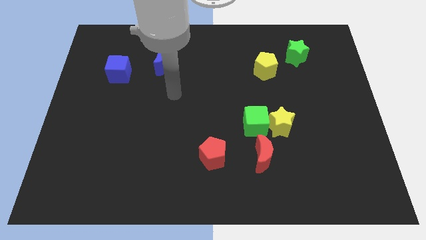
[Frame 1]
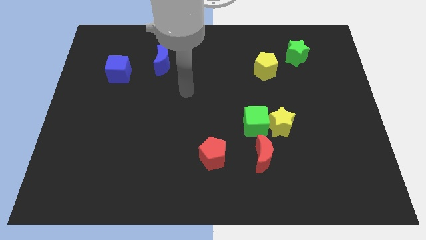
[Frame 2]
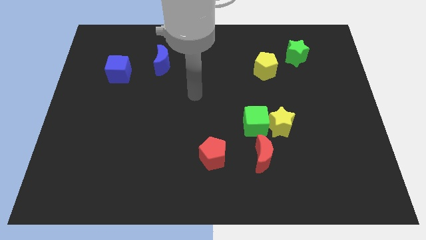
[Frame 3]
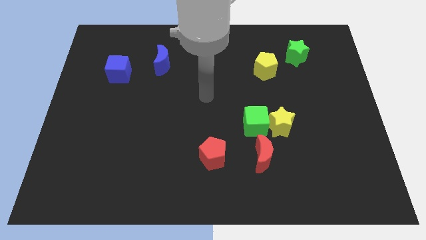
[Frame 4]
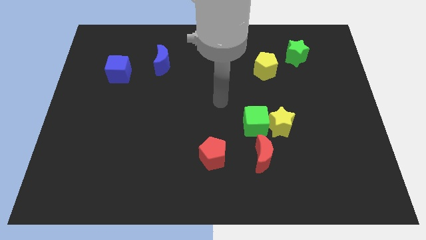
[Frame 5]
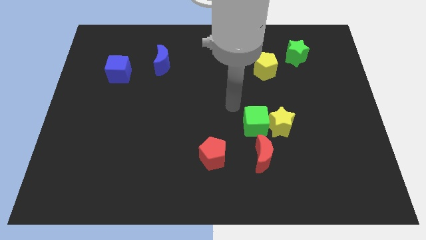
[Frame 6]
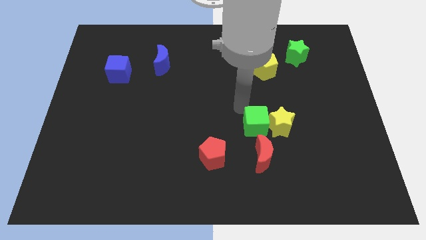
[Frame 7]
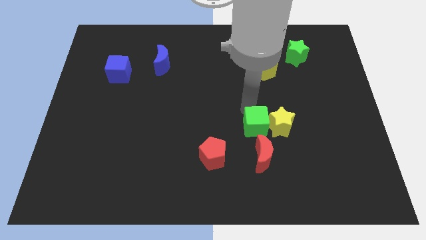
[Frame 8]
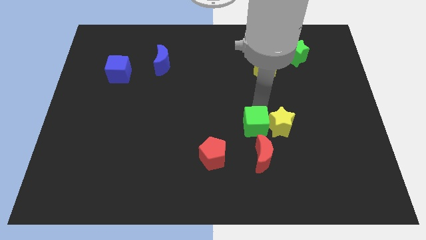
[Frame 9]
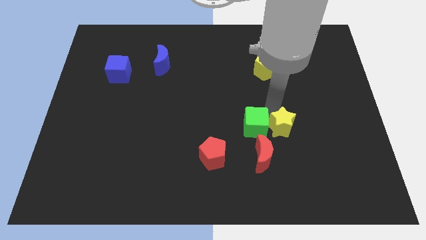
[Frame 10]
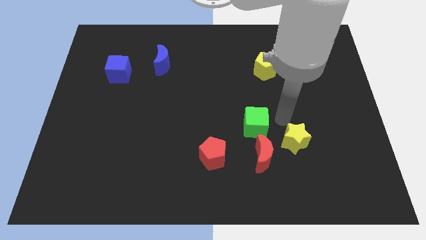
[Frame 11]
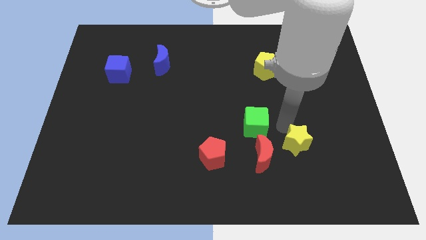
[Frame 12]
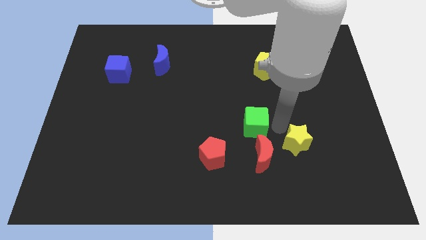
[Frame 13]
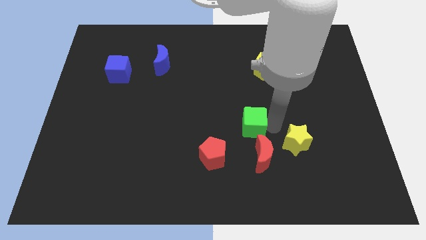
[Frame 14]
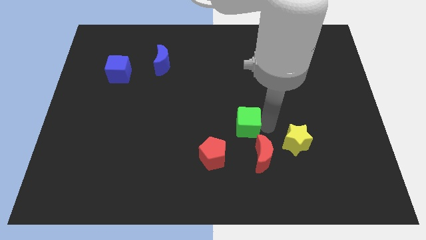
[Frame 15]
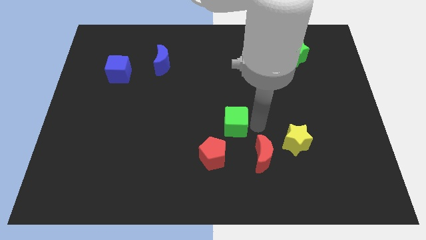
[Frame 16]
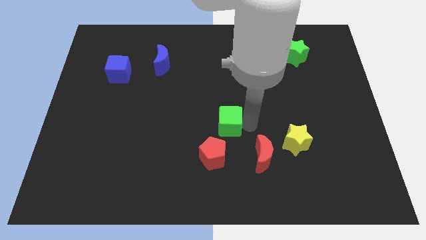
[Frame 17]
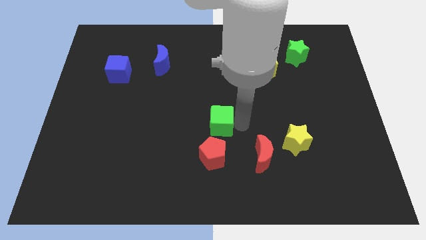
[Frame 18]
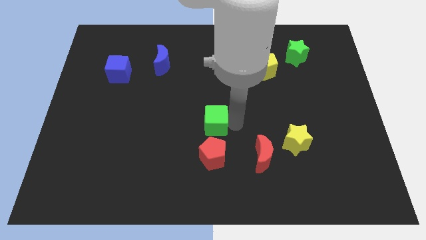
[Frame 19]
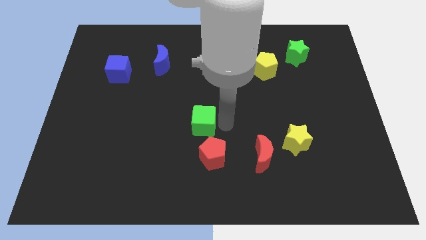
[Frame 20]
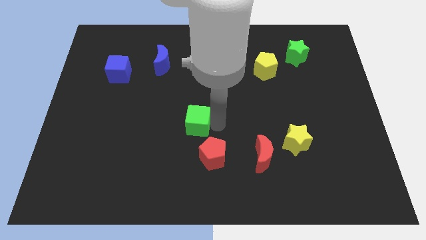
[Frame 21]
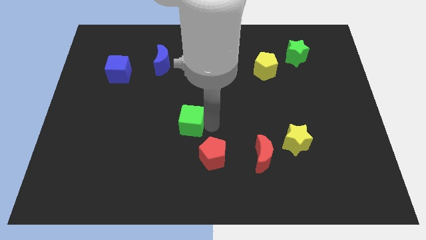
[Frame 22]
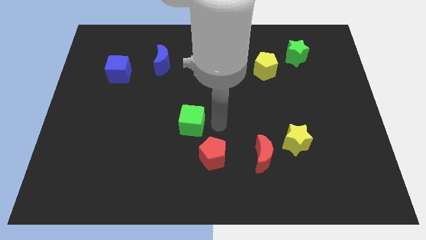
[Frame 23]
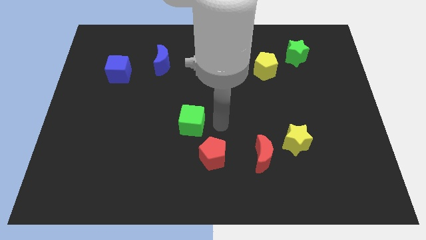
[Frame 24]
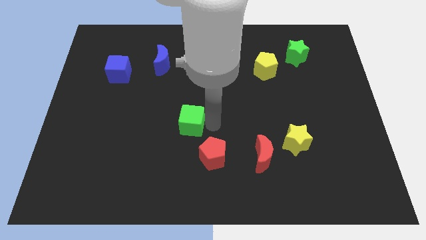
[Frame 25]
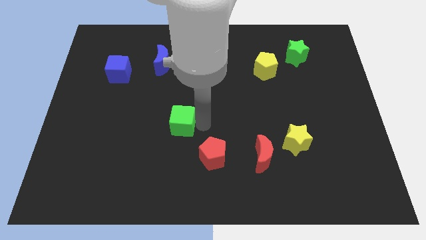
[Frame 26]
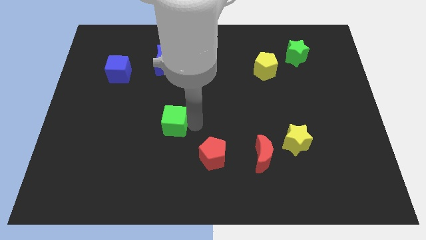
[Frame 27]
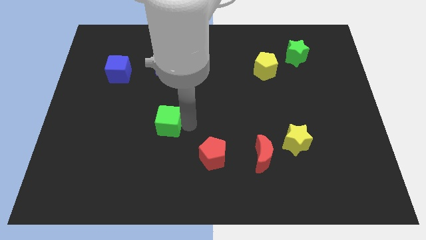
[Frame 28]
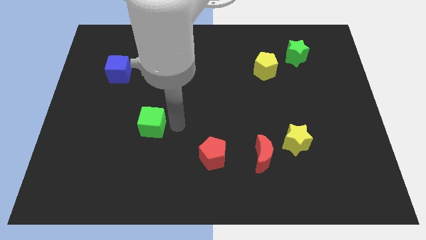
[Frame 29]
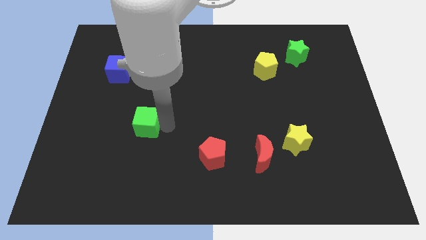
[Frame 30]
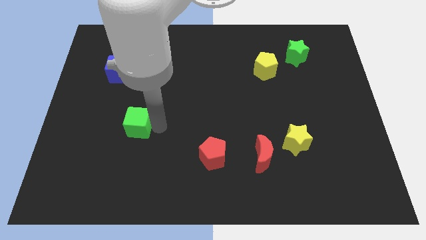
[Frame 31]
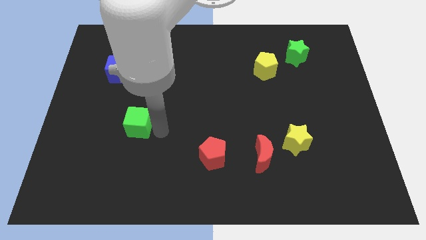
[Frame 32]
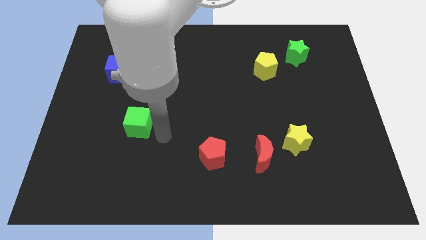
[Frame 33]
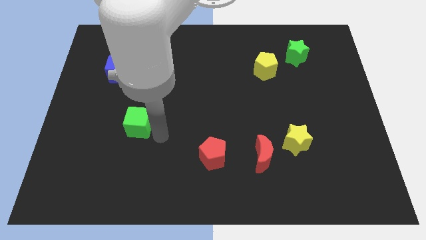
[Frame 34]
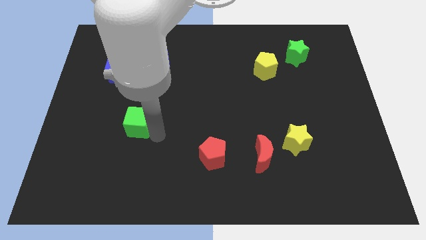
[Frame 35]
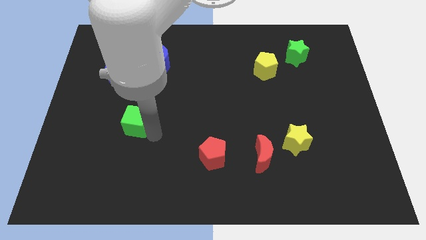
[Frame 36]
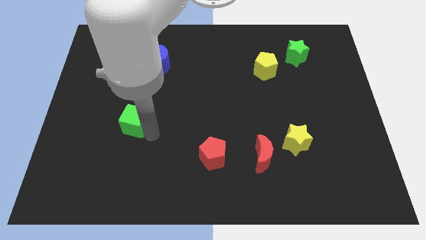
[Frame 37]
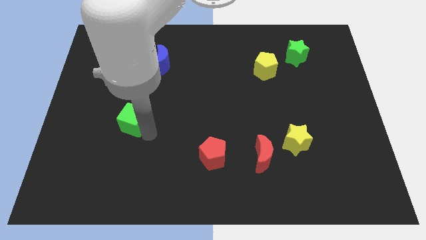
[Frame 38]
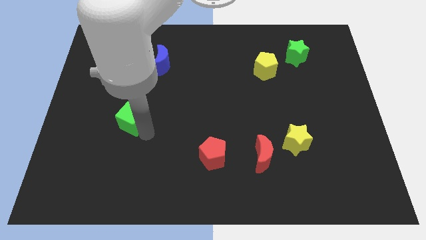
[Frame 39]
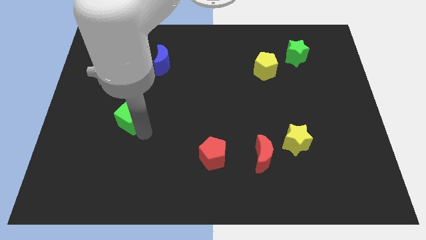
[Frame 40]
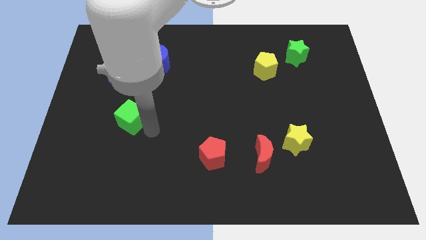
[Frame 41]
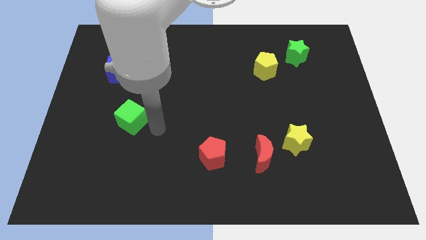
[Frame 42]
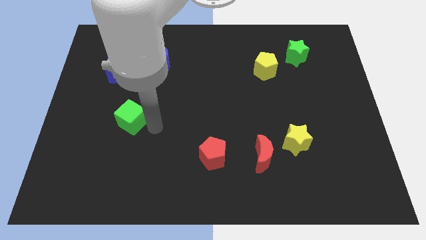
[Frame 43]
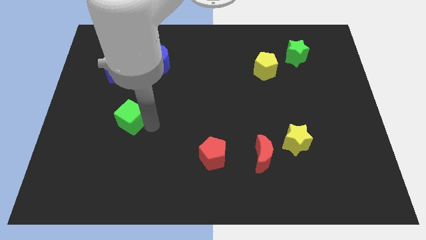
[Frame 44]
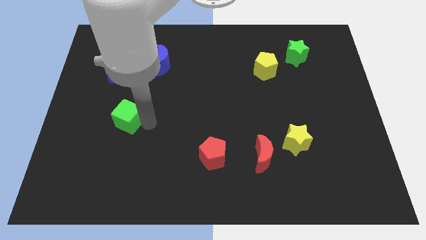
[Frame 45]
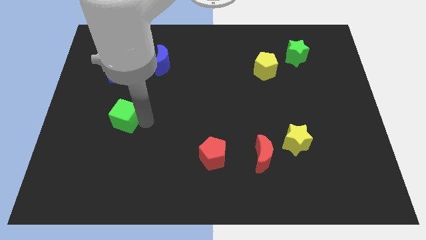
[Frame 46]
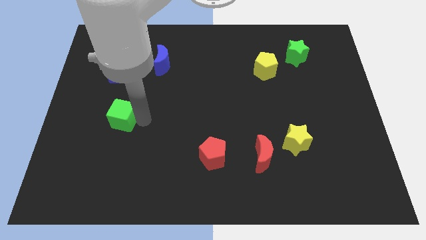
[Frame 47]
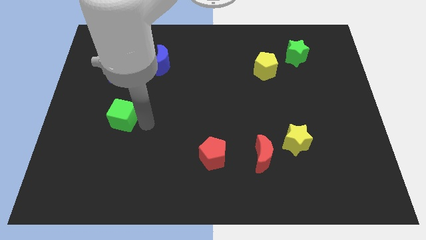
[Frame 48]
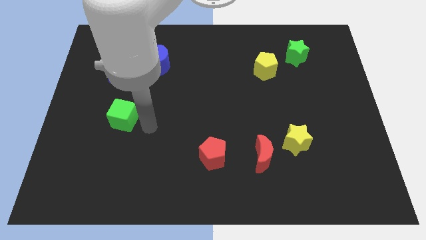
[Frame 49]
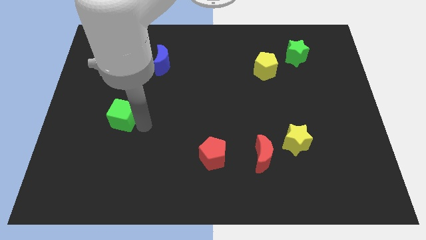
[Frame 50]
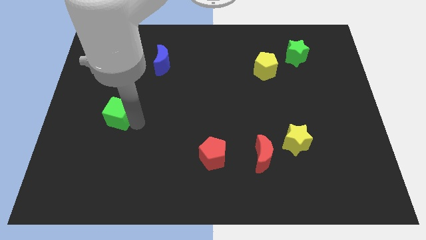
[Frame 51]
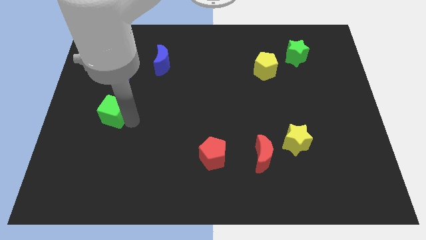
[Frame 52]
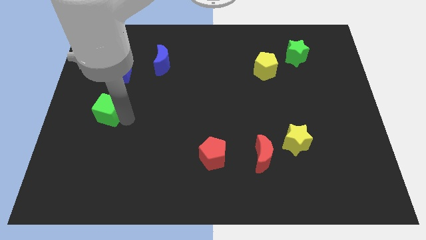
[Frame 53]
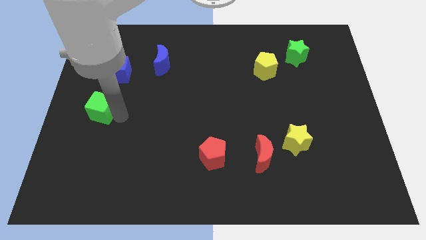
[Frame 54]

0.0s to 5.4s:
slide the green cube to the center left

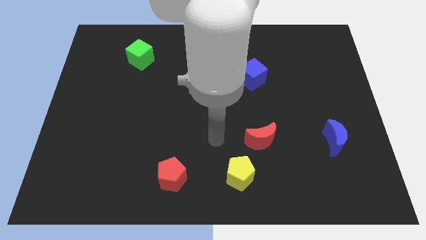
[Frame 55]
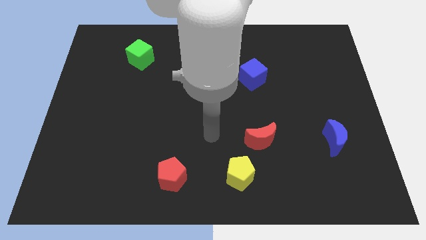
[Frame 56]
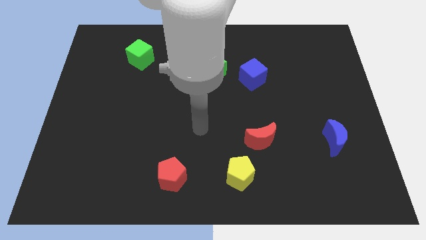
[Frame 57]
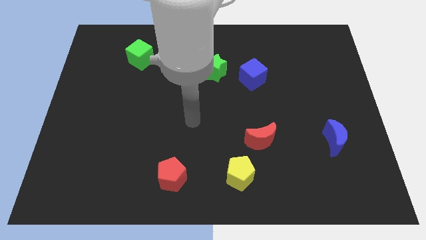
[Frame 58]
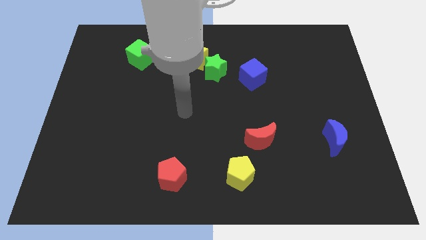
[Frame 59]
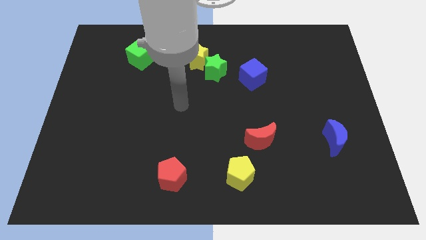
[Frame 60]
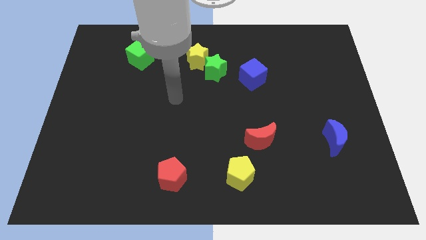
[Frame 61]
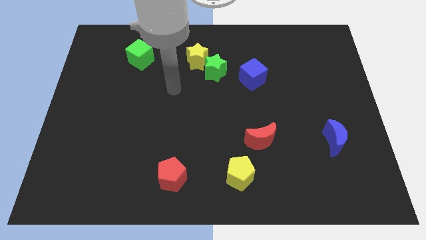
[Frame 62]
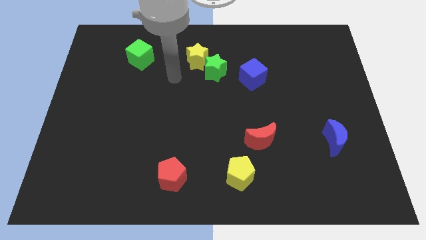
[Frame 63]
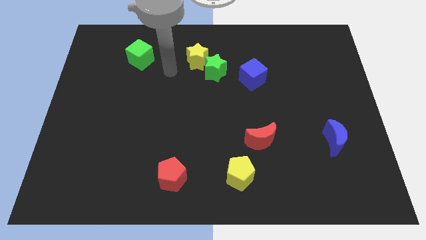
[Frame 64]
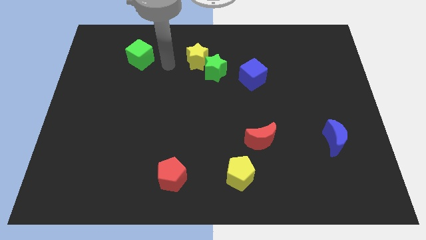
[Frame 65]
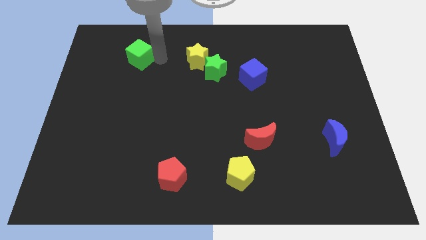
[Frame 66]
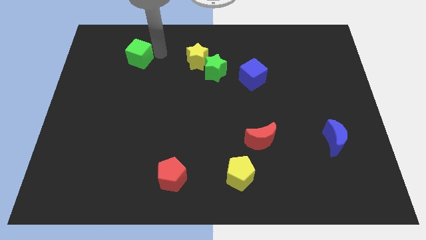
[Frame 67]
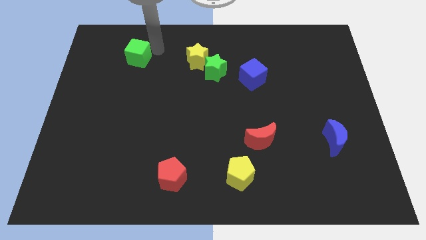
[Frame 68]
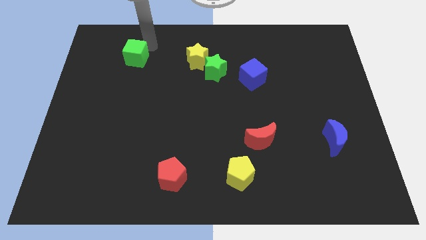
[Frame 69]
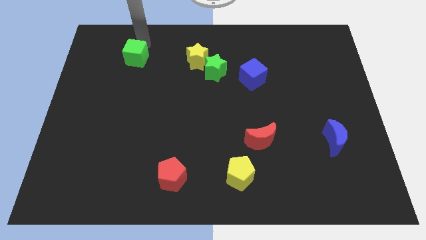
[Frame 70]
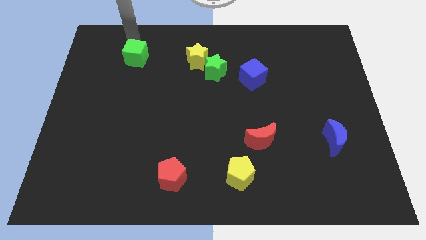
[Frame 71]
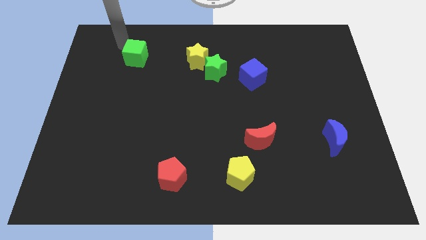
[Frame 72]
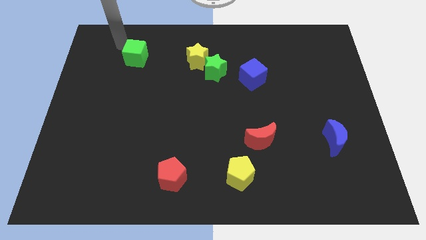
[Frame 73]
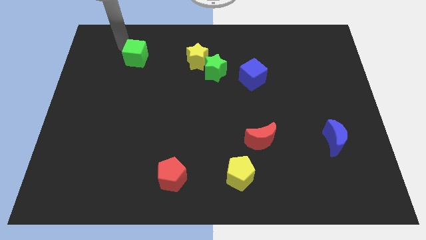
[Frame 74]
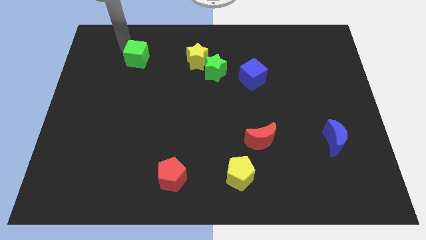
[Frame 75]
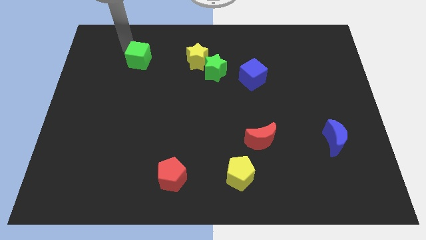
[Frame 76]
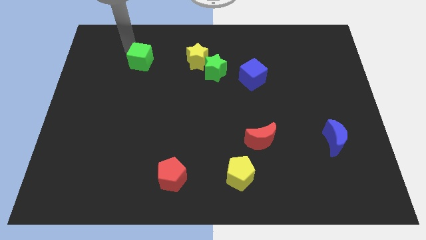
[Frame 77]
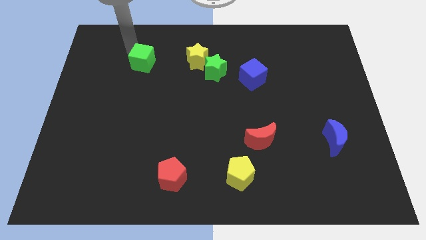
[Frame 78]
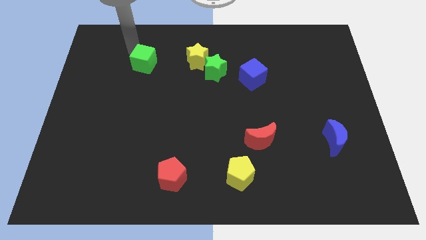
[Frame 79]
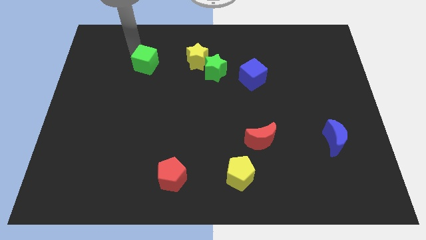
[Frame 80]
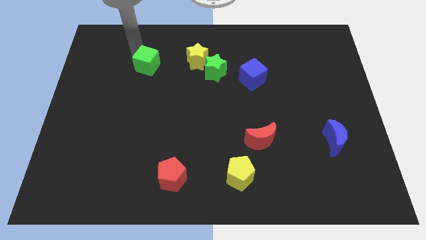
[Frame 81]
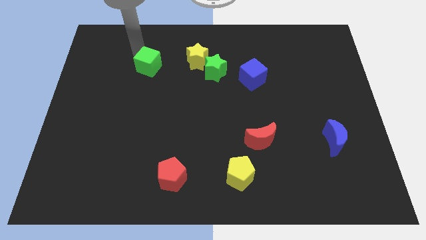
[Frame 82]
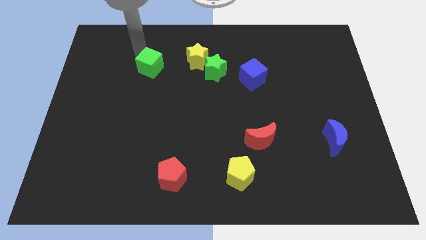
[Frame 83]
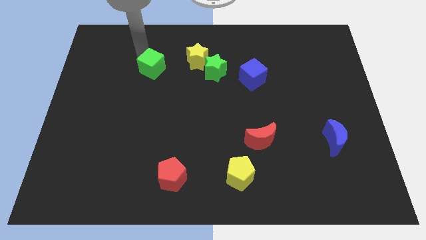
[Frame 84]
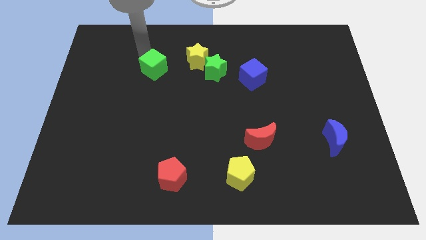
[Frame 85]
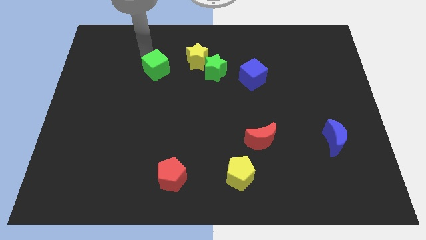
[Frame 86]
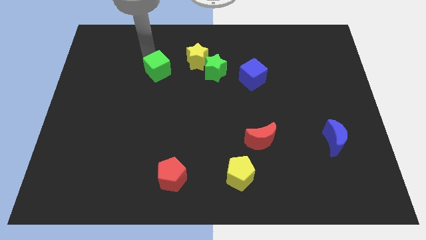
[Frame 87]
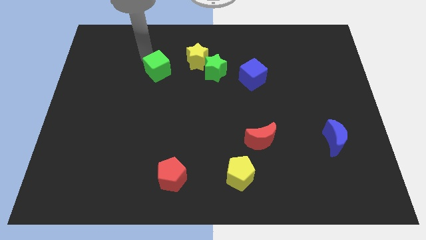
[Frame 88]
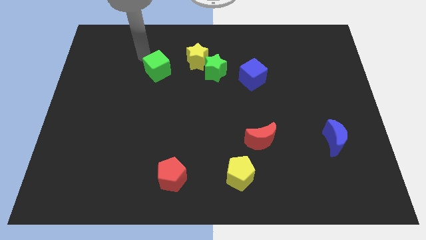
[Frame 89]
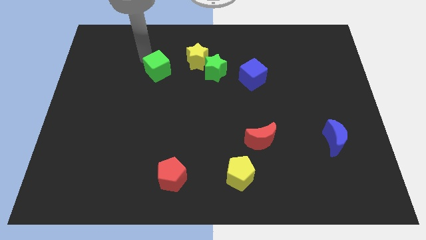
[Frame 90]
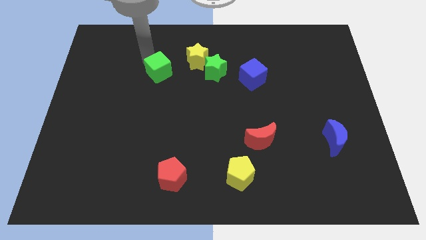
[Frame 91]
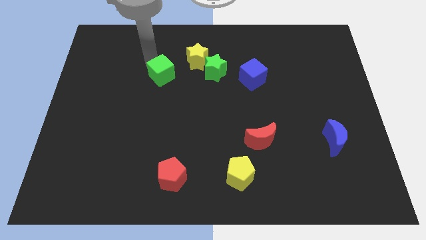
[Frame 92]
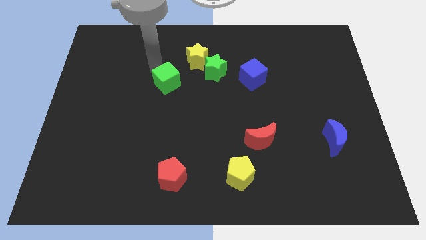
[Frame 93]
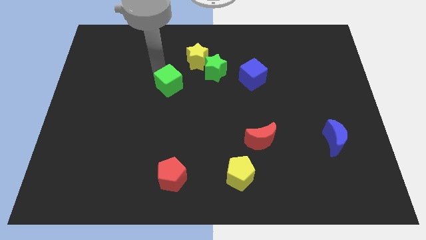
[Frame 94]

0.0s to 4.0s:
move the green cube to the center
